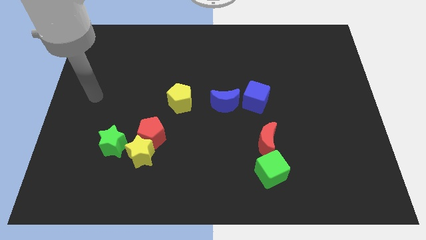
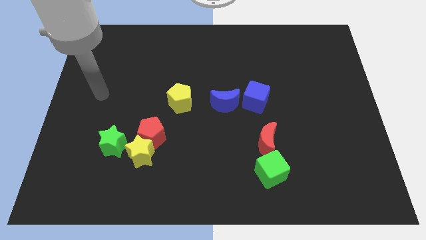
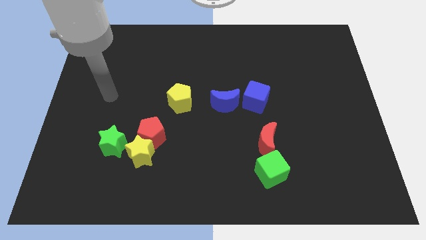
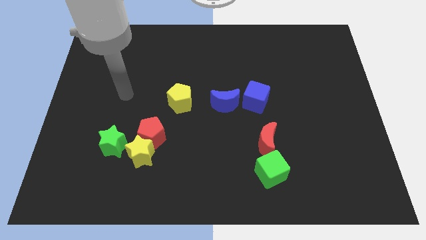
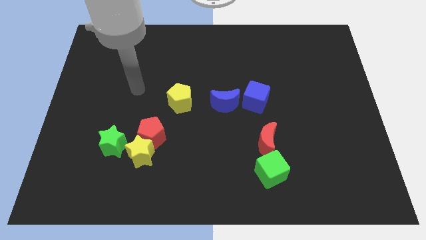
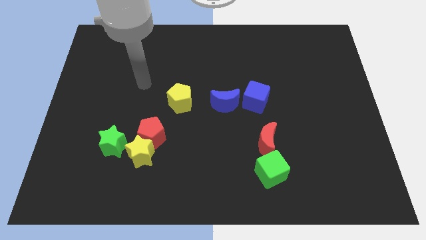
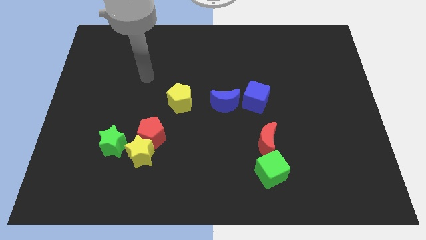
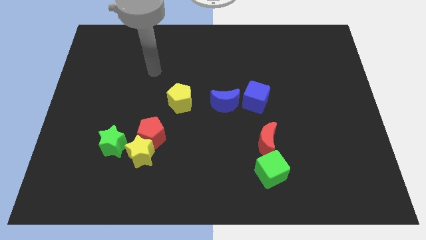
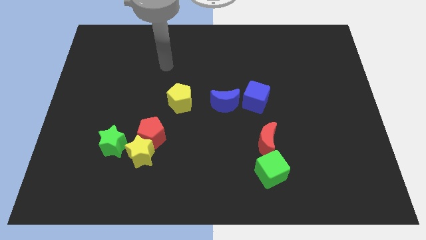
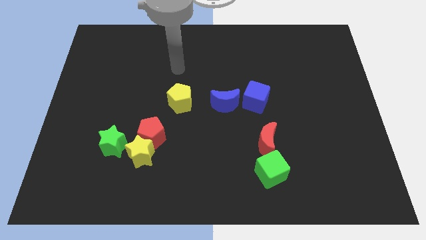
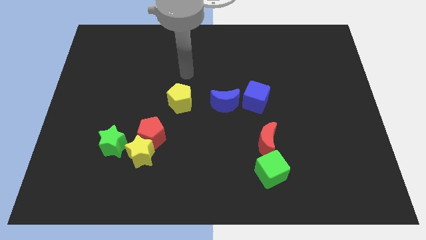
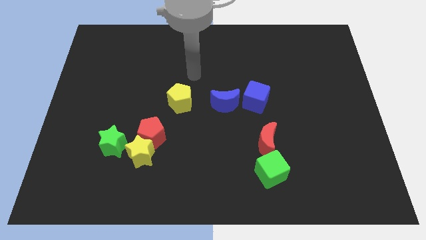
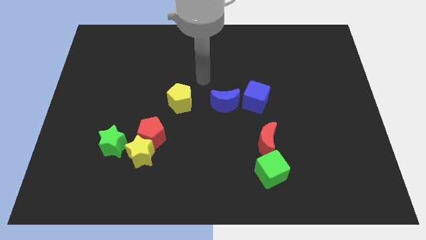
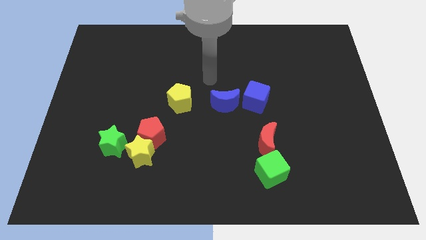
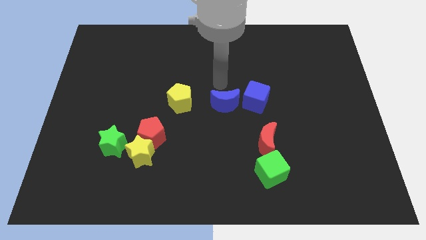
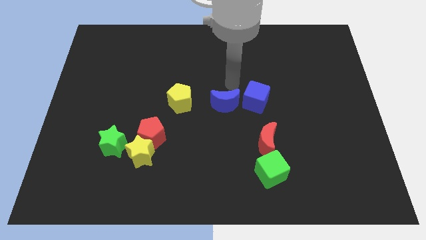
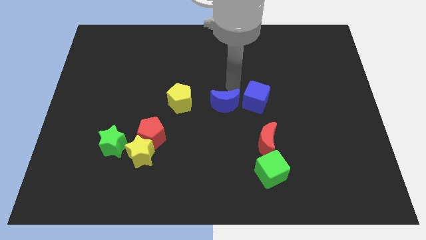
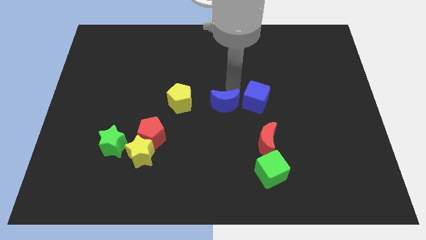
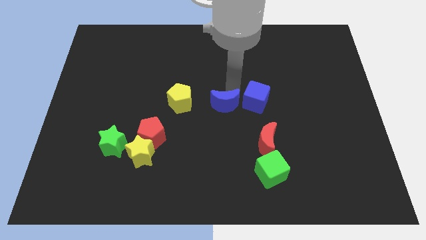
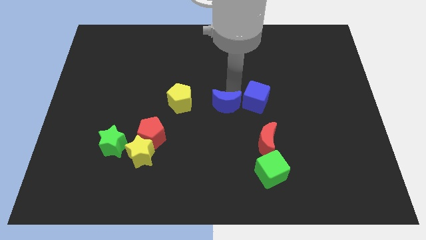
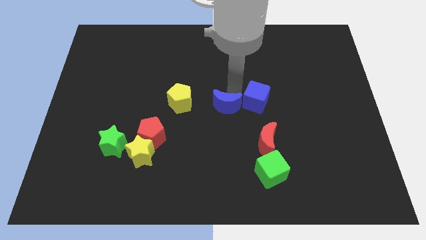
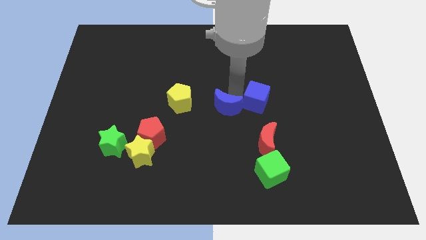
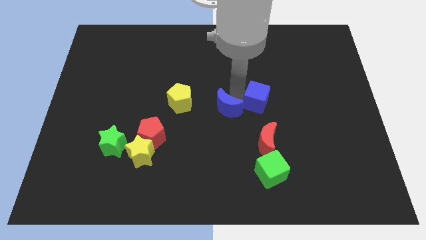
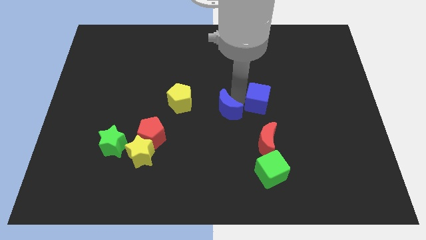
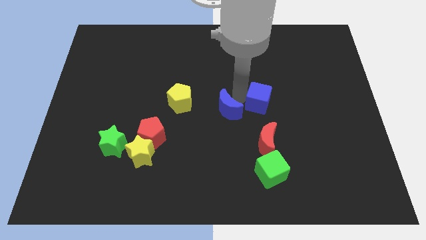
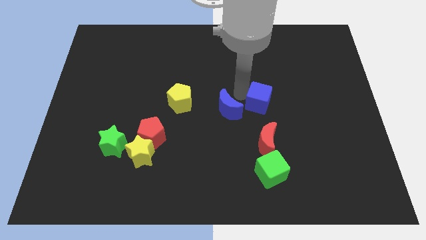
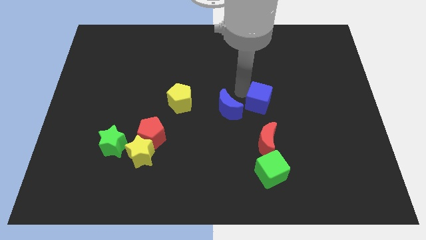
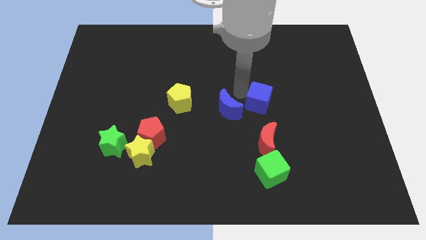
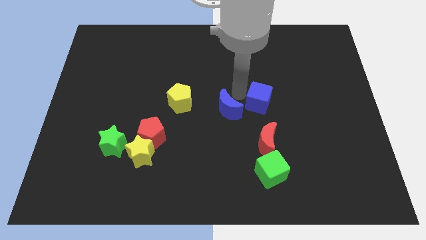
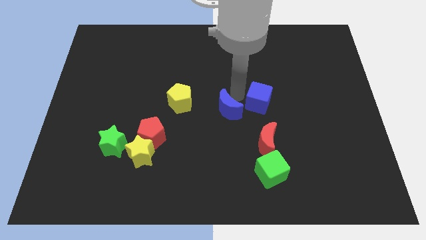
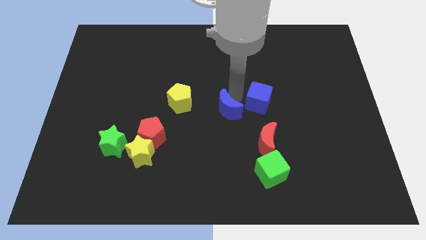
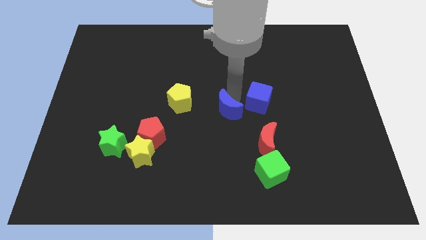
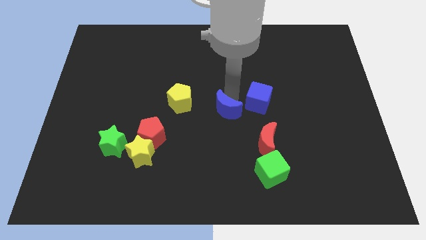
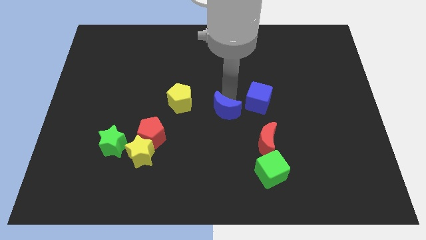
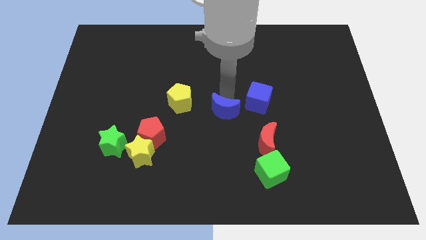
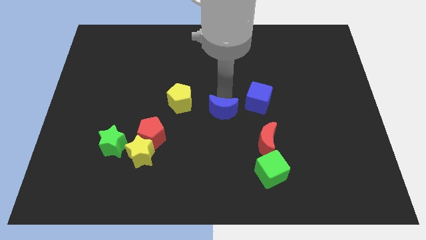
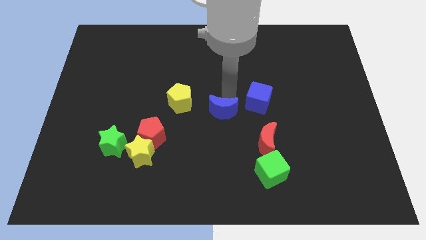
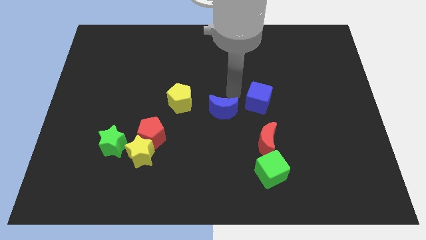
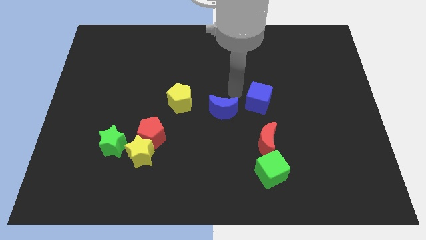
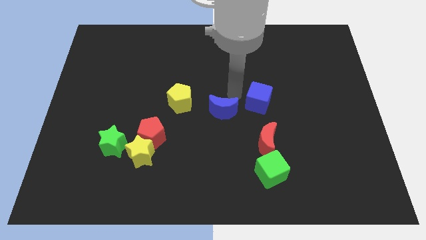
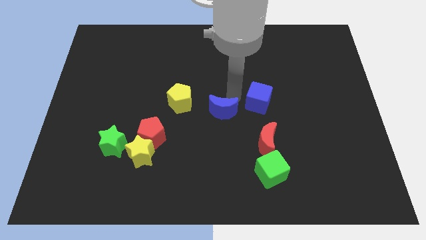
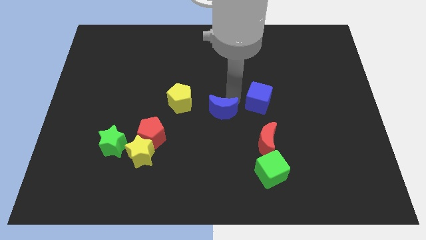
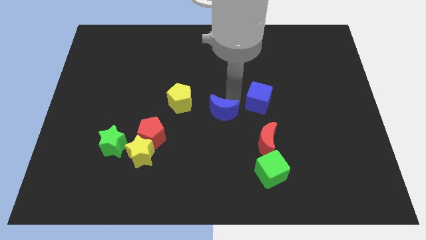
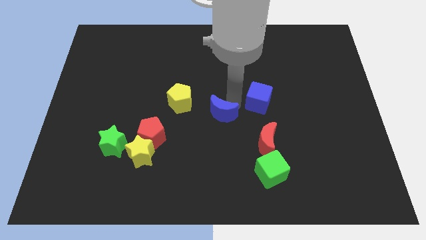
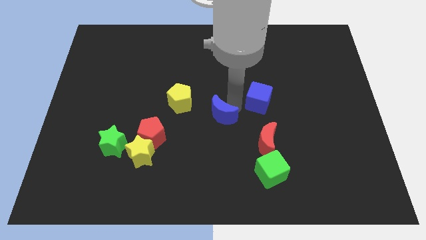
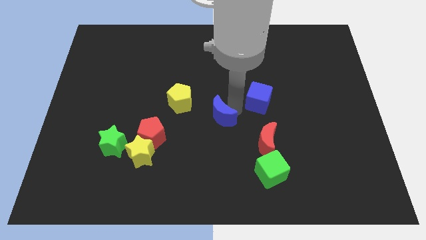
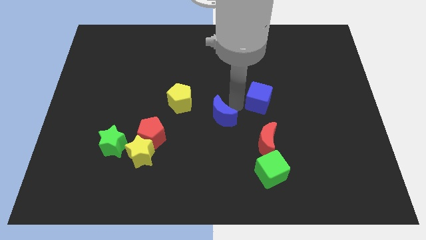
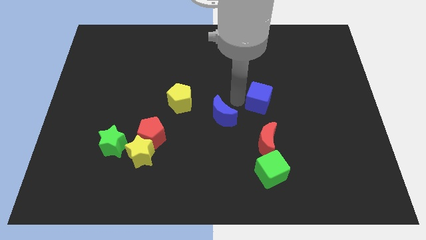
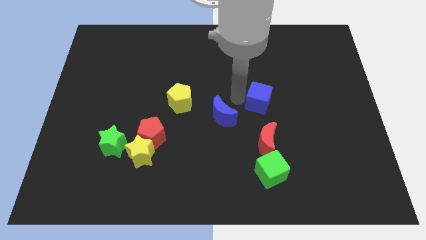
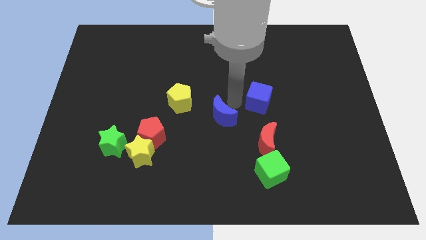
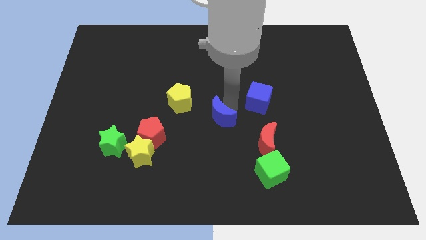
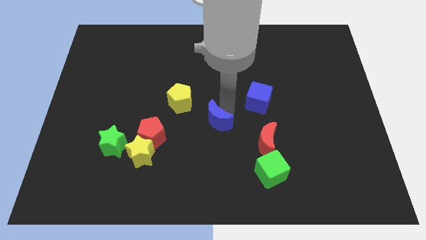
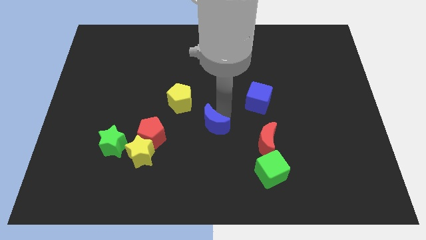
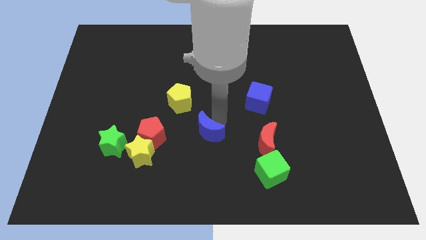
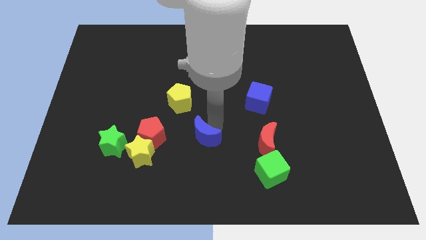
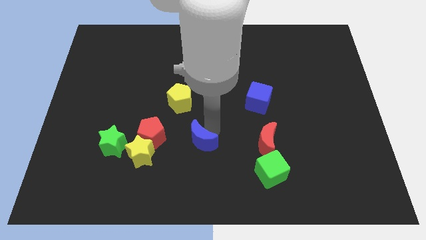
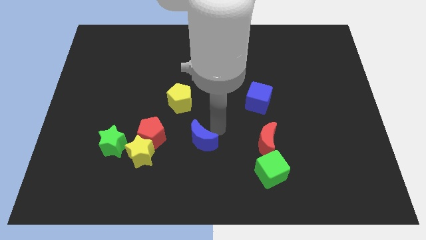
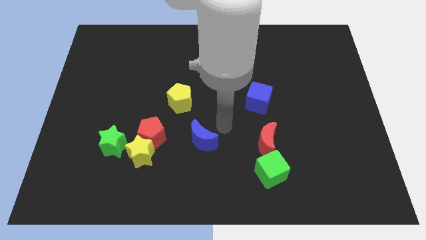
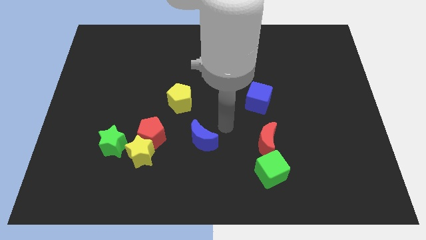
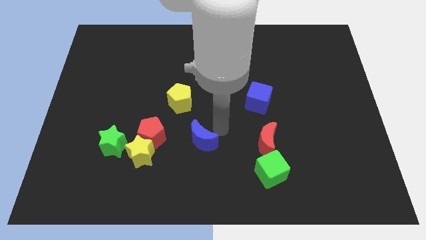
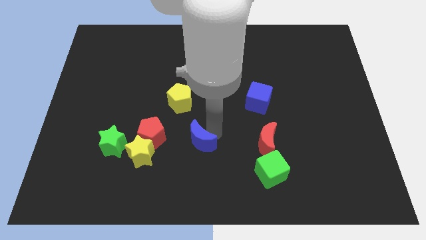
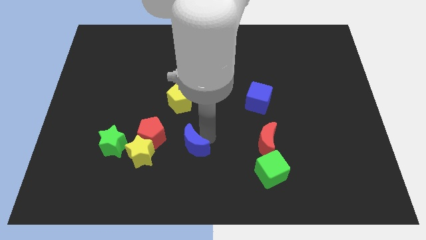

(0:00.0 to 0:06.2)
slide the blue moon to the bottom right side of the red pentagon

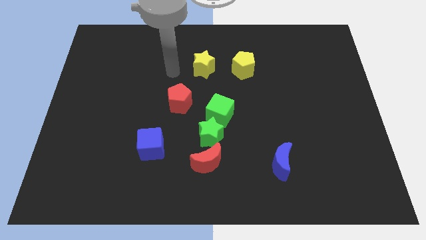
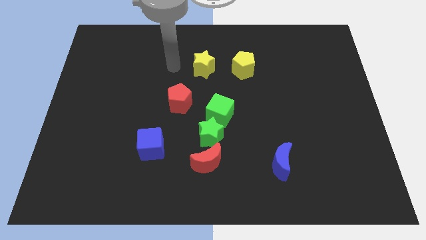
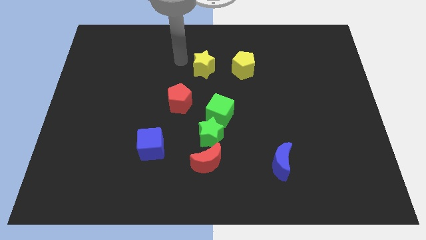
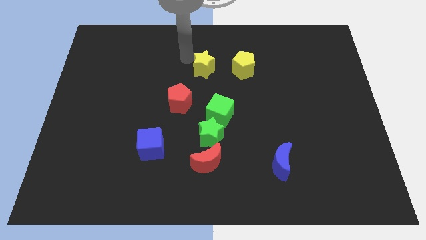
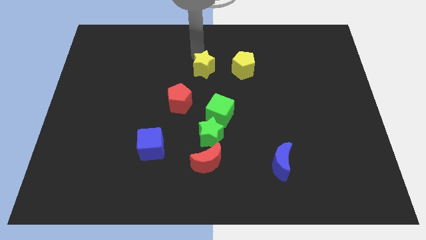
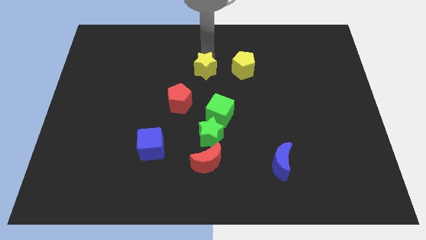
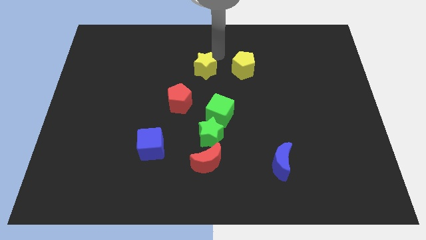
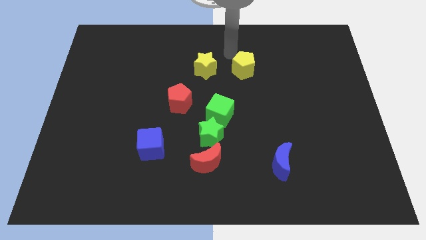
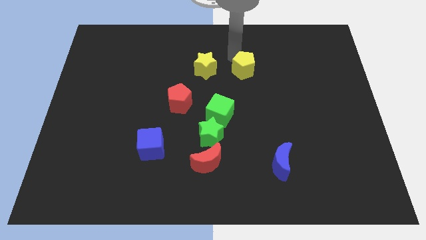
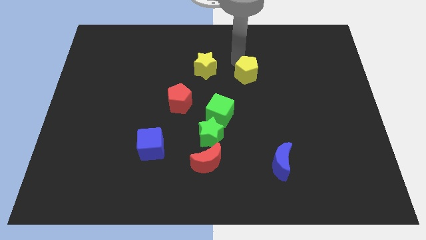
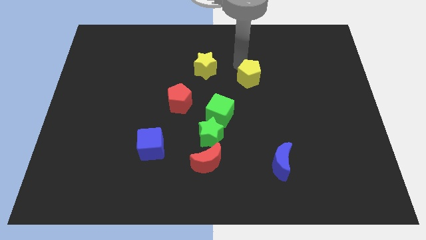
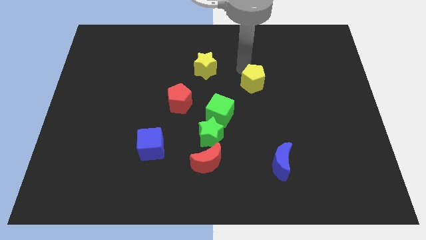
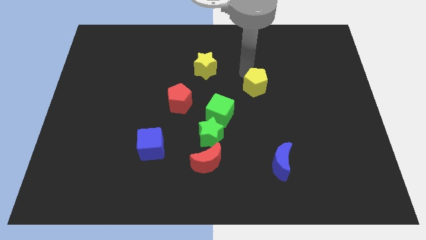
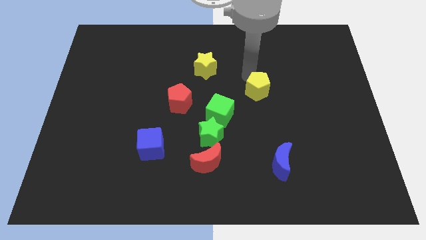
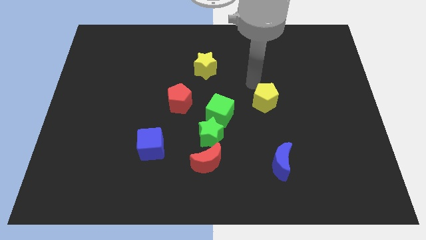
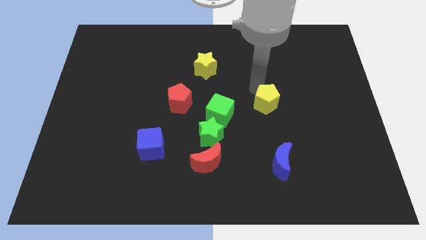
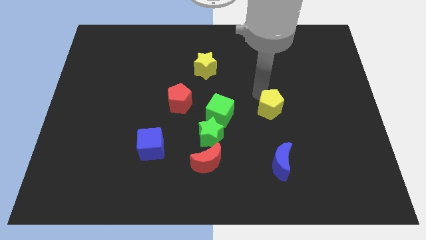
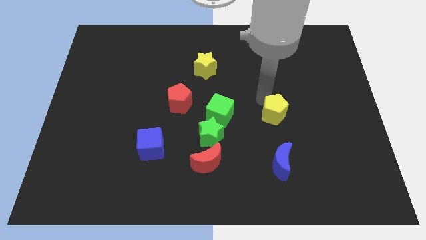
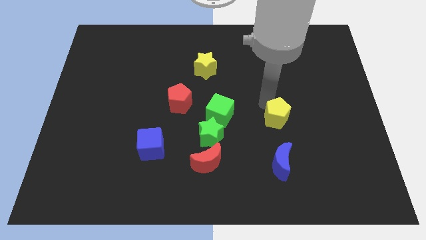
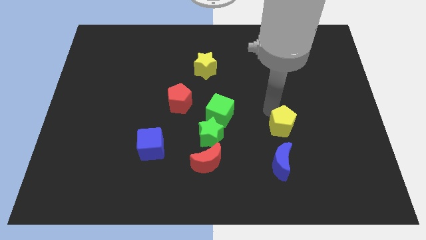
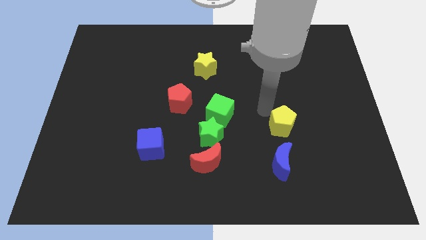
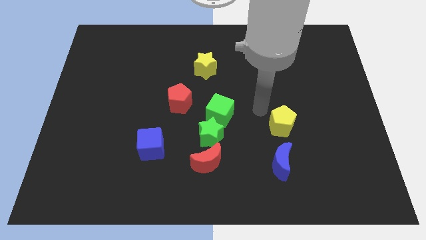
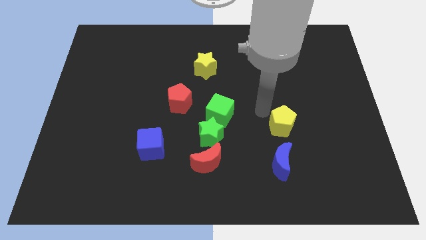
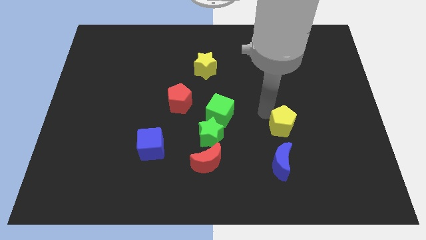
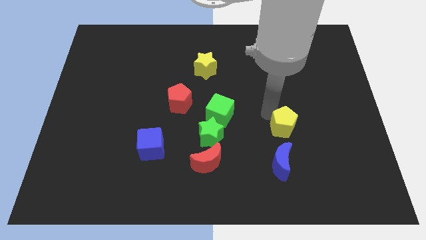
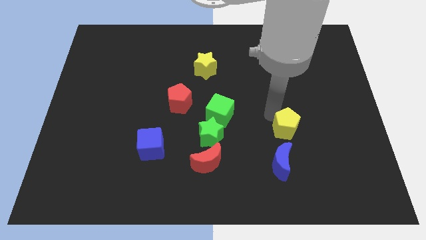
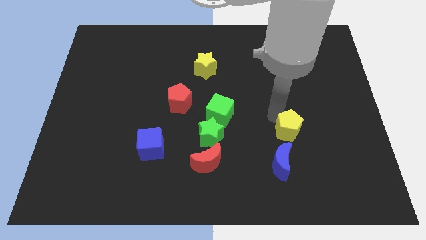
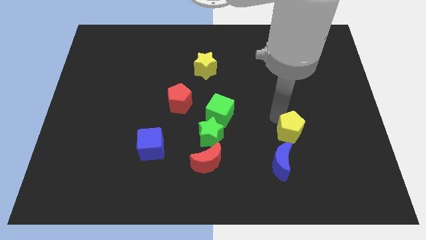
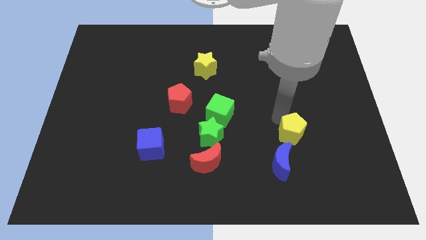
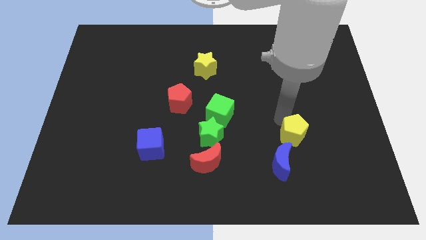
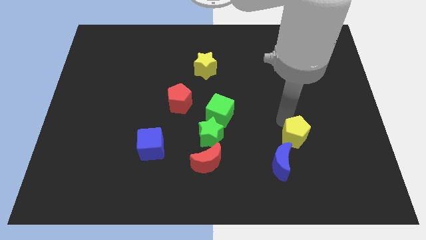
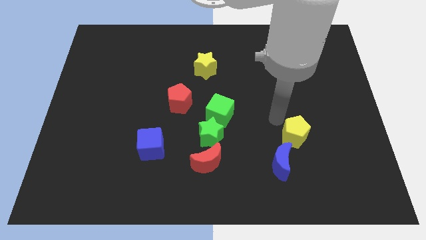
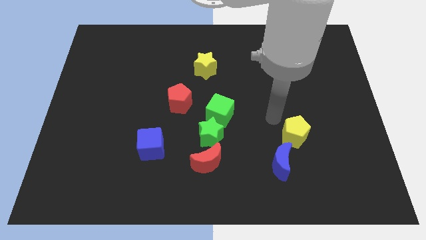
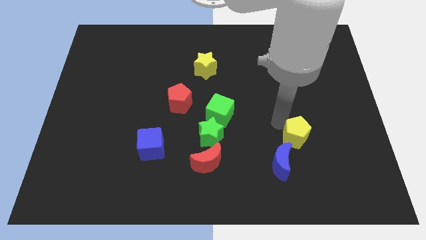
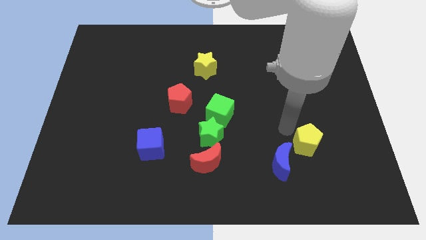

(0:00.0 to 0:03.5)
put the yellow pentagon to the right of the blue moon
